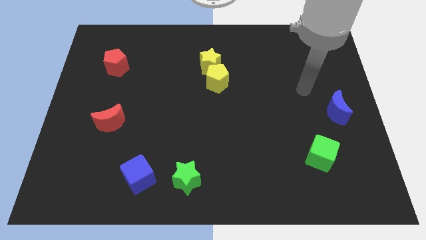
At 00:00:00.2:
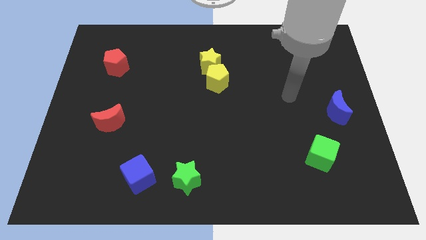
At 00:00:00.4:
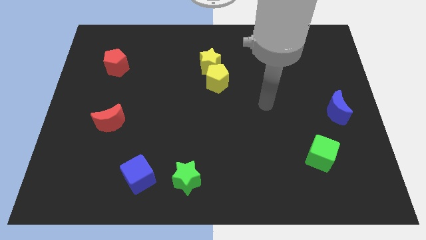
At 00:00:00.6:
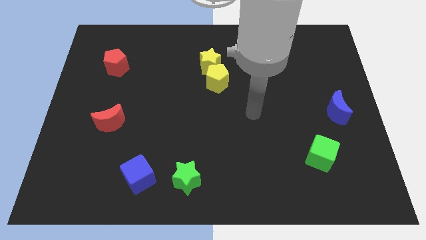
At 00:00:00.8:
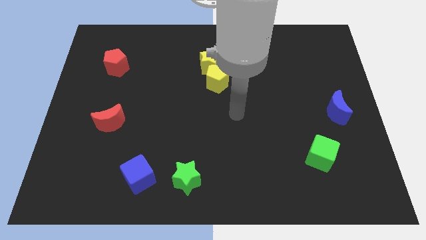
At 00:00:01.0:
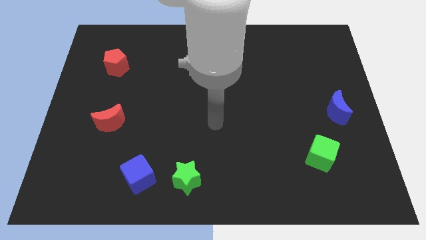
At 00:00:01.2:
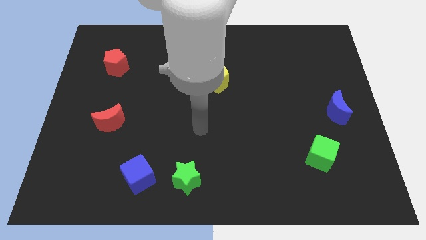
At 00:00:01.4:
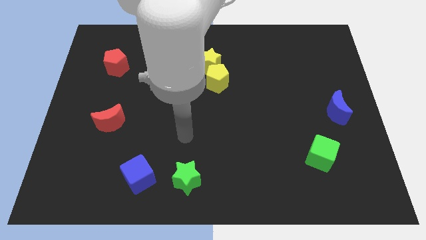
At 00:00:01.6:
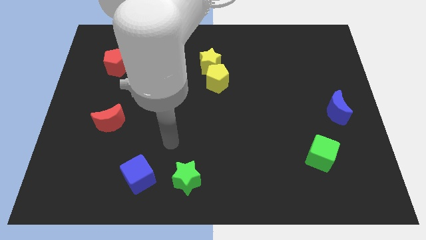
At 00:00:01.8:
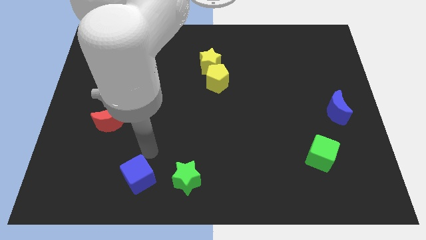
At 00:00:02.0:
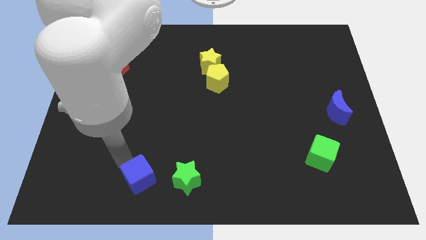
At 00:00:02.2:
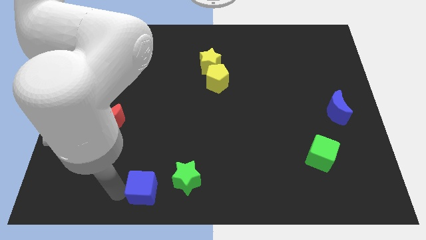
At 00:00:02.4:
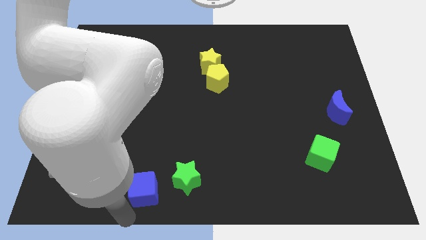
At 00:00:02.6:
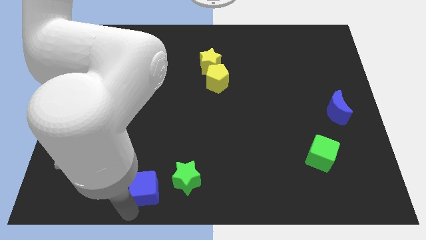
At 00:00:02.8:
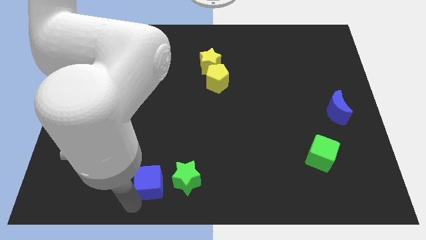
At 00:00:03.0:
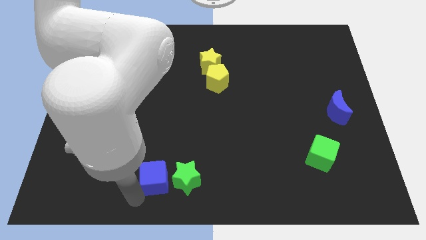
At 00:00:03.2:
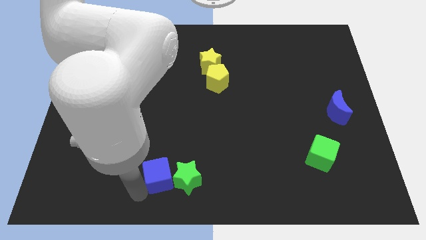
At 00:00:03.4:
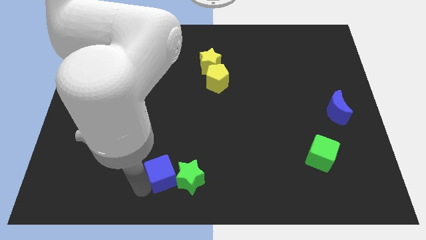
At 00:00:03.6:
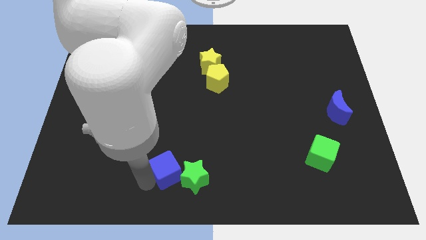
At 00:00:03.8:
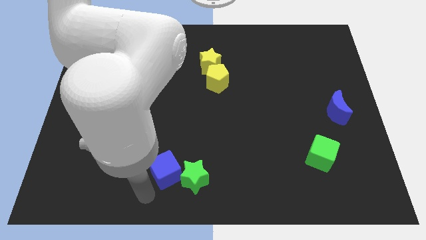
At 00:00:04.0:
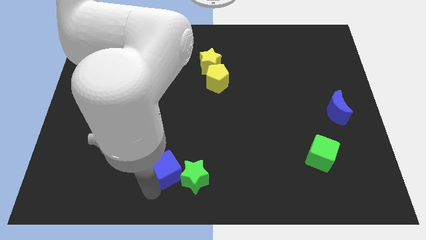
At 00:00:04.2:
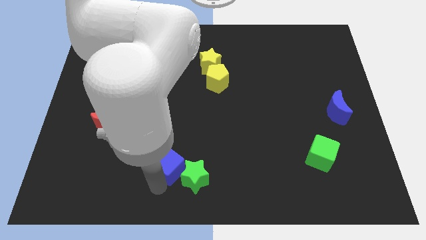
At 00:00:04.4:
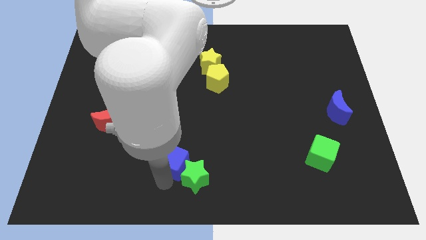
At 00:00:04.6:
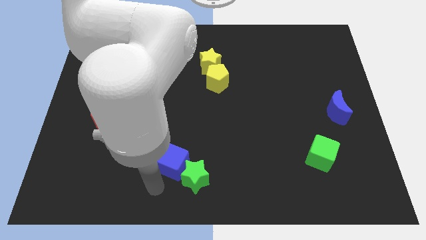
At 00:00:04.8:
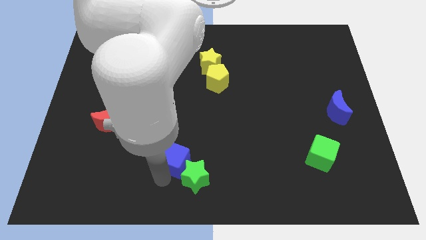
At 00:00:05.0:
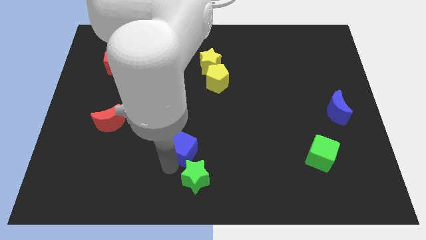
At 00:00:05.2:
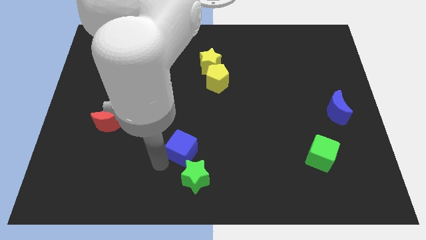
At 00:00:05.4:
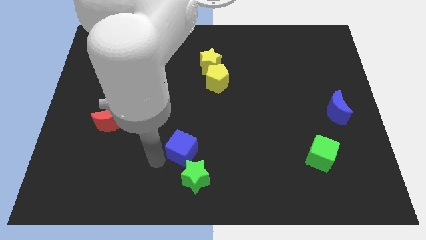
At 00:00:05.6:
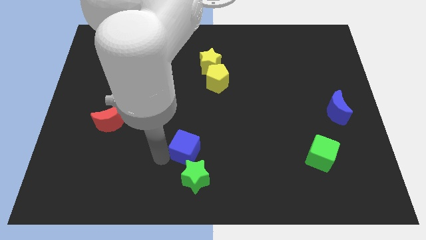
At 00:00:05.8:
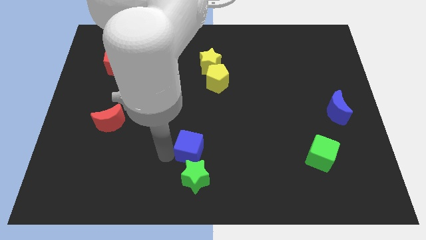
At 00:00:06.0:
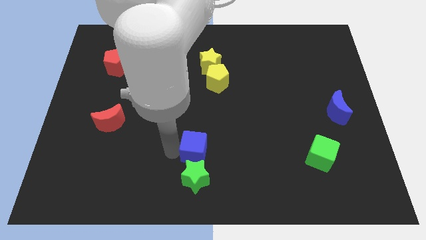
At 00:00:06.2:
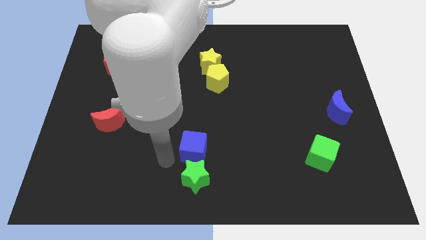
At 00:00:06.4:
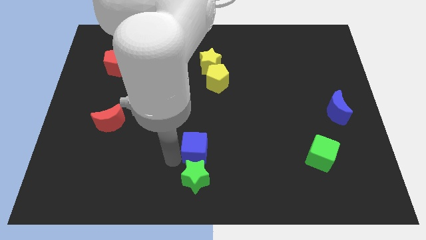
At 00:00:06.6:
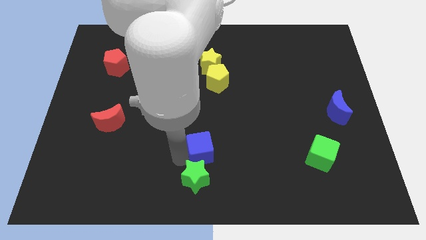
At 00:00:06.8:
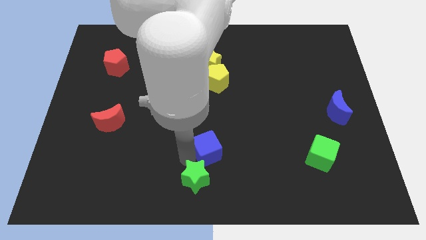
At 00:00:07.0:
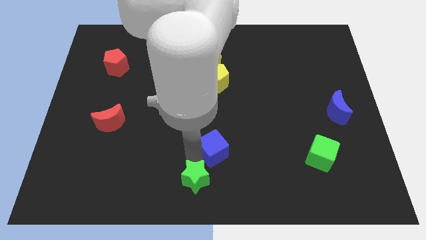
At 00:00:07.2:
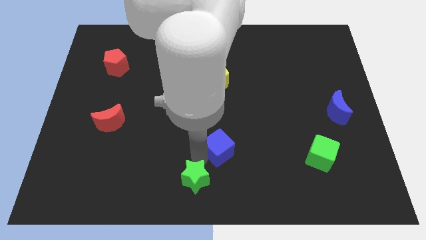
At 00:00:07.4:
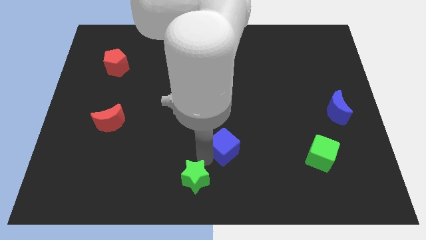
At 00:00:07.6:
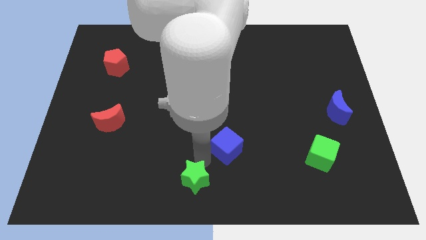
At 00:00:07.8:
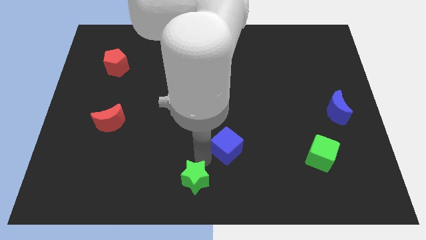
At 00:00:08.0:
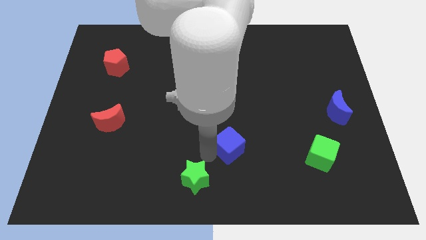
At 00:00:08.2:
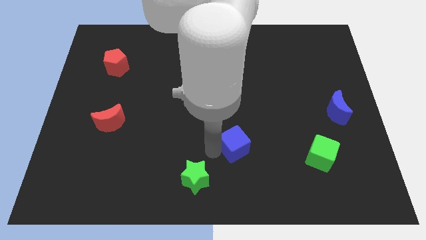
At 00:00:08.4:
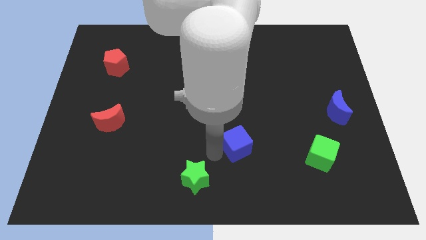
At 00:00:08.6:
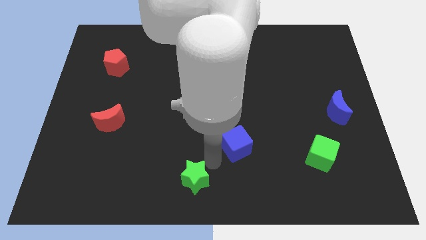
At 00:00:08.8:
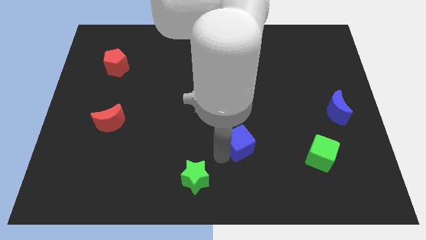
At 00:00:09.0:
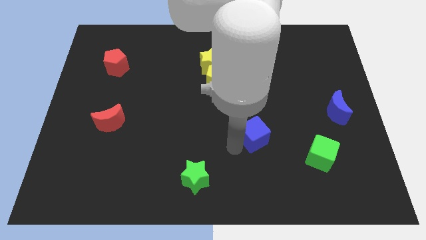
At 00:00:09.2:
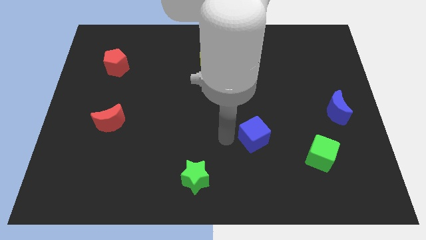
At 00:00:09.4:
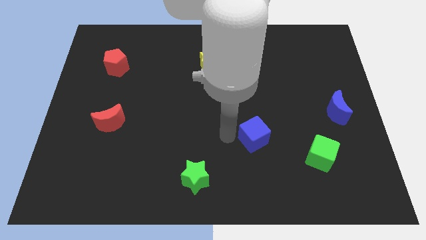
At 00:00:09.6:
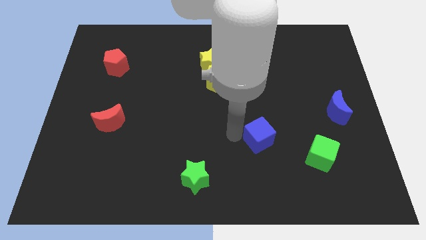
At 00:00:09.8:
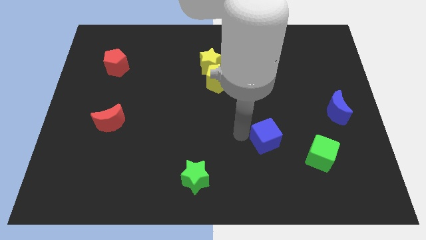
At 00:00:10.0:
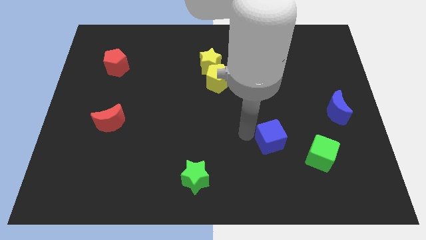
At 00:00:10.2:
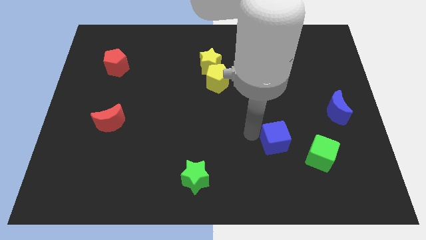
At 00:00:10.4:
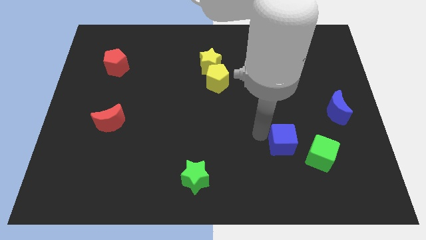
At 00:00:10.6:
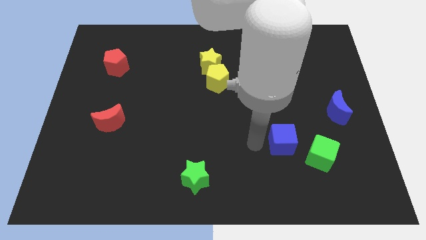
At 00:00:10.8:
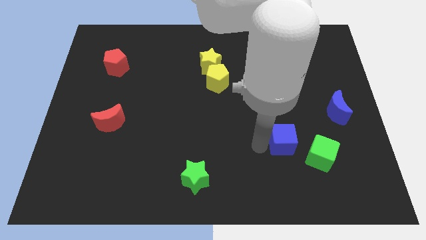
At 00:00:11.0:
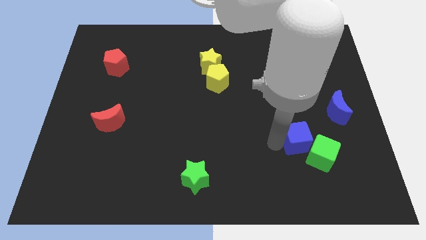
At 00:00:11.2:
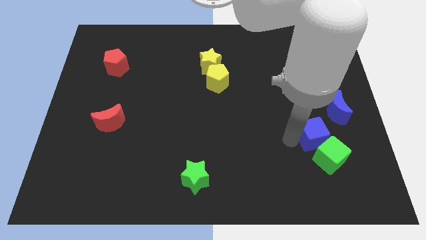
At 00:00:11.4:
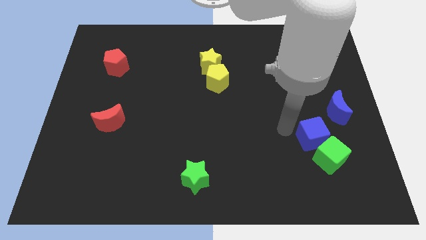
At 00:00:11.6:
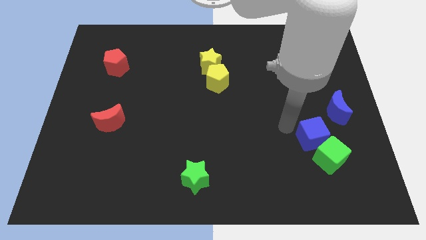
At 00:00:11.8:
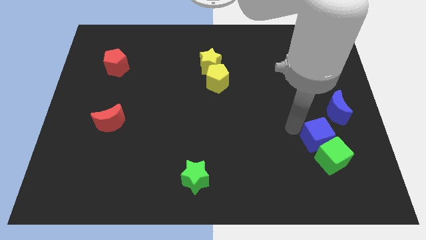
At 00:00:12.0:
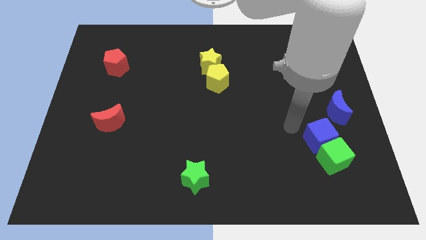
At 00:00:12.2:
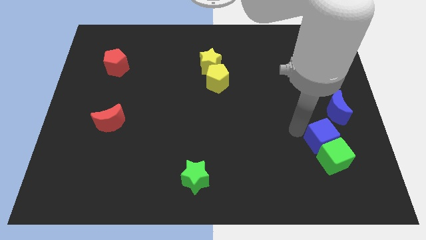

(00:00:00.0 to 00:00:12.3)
push the blue cube to the bottom side of the blue moon
